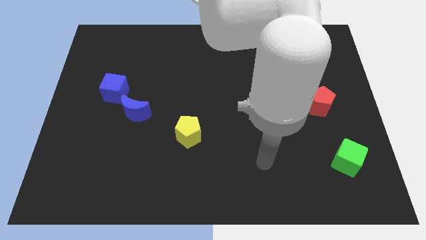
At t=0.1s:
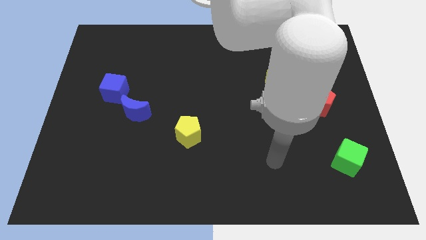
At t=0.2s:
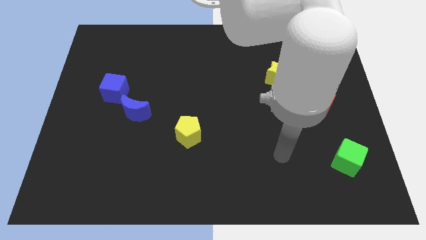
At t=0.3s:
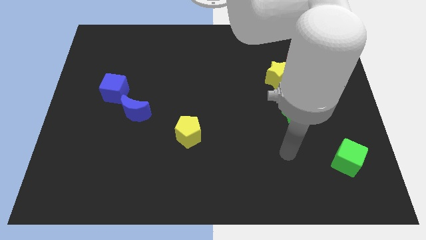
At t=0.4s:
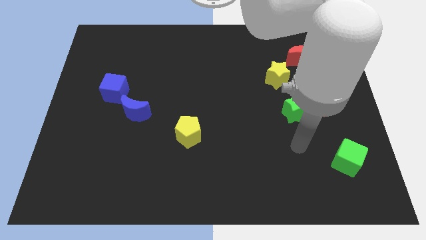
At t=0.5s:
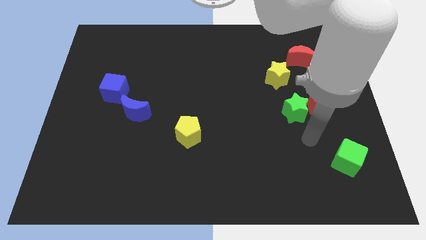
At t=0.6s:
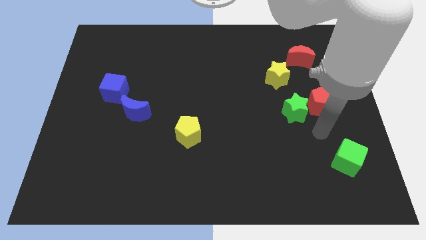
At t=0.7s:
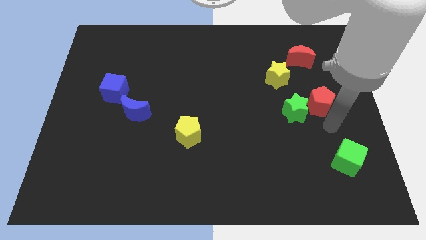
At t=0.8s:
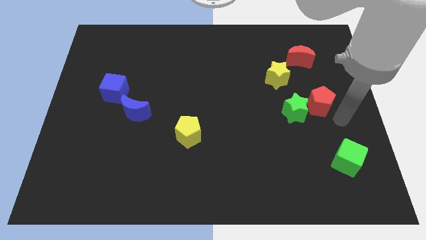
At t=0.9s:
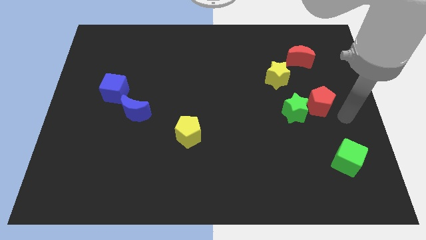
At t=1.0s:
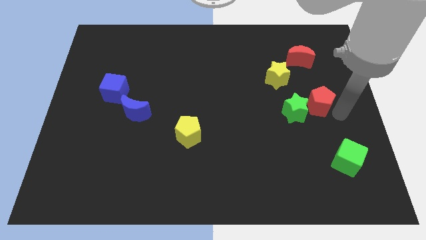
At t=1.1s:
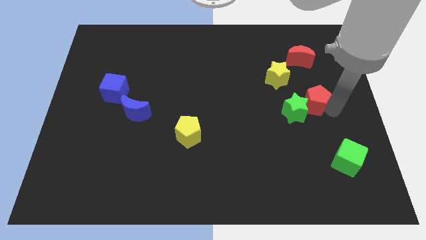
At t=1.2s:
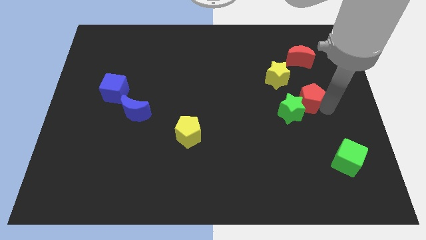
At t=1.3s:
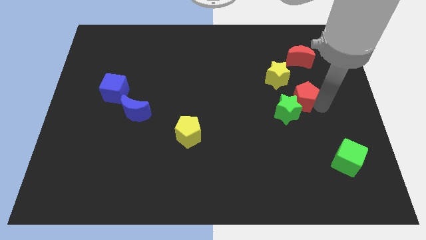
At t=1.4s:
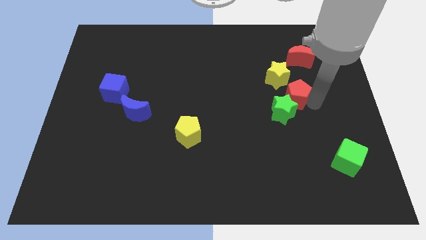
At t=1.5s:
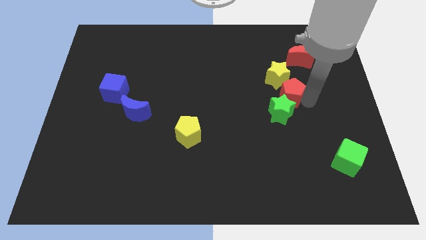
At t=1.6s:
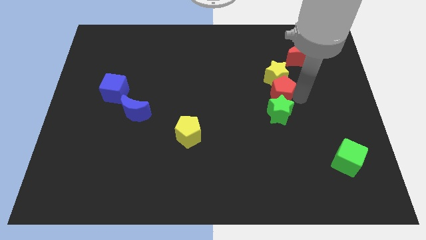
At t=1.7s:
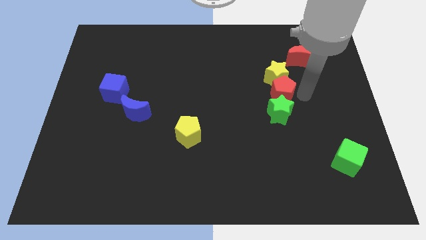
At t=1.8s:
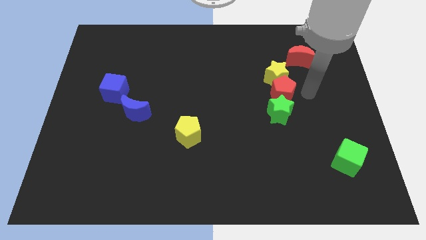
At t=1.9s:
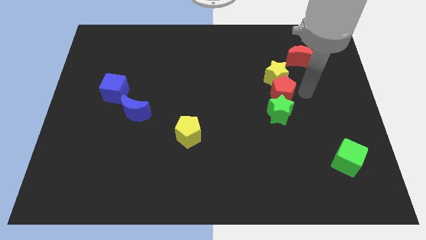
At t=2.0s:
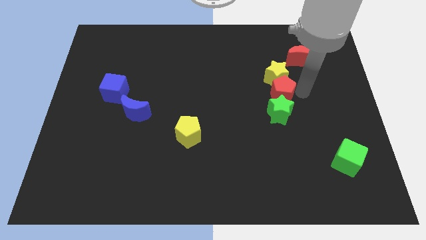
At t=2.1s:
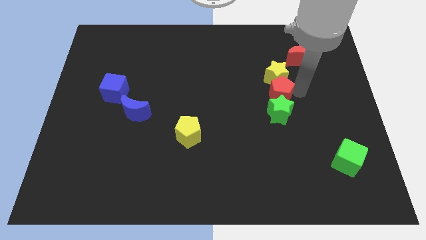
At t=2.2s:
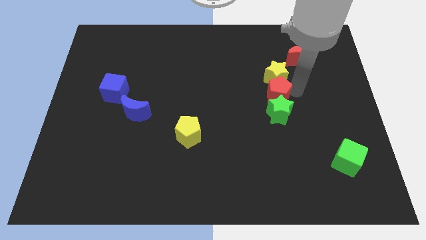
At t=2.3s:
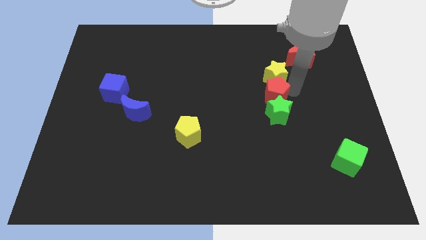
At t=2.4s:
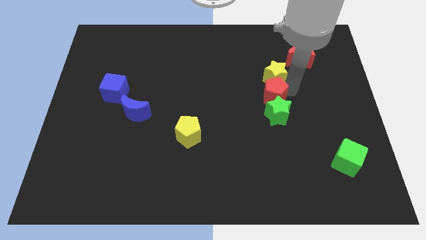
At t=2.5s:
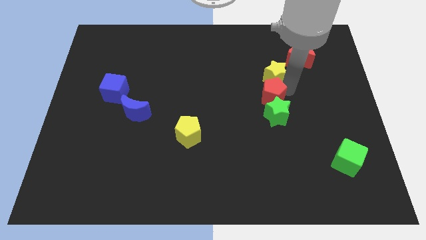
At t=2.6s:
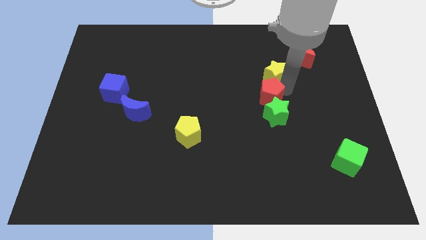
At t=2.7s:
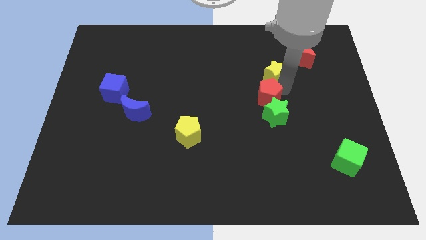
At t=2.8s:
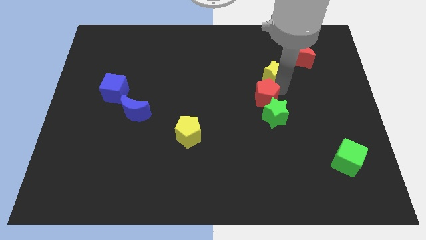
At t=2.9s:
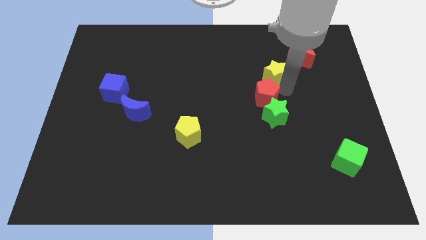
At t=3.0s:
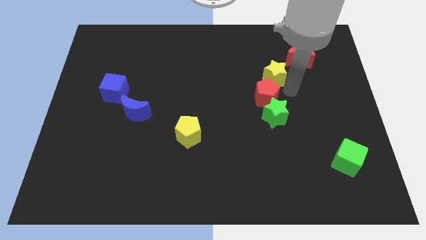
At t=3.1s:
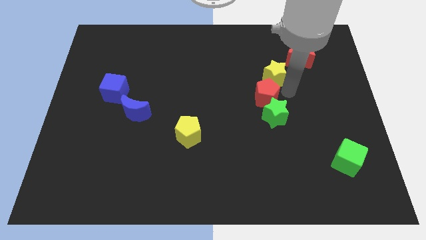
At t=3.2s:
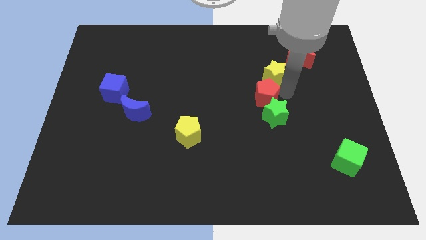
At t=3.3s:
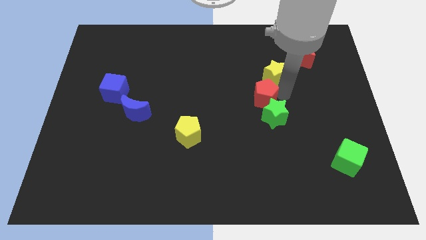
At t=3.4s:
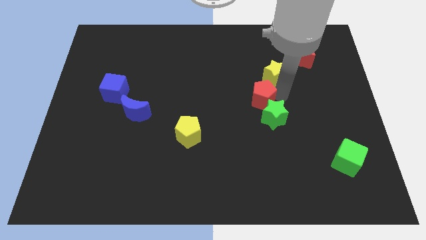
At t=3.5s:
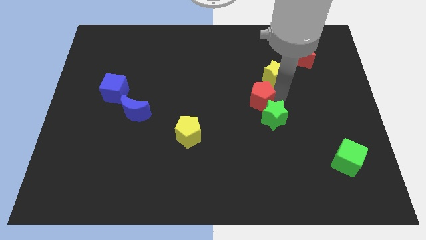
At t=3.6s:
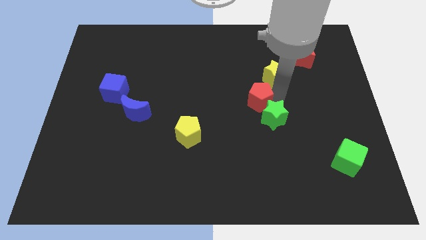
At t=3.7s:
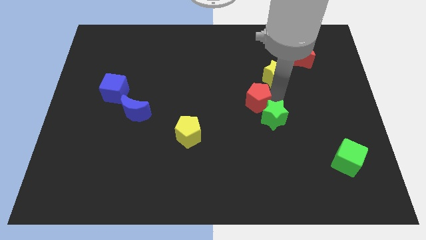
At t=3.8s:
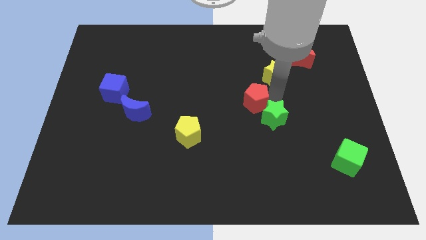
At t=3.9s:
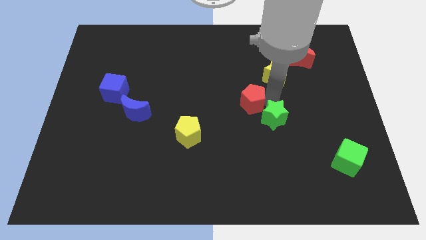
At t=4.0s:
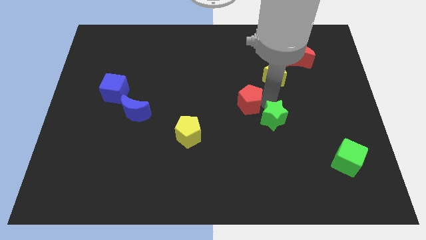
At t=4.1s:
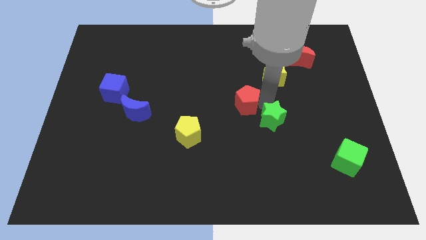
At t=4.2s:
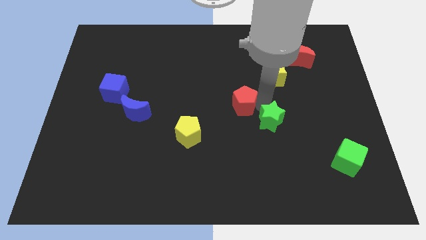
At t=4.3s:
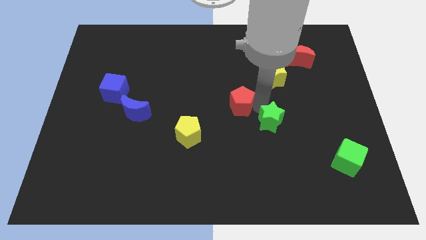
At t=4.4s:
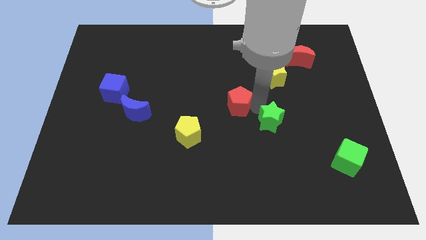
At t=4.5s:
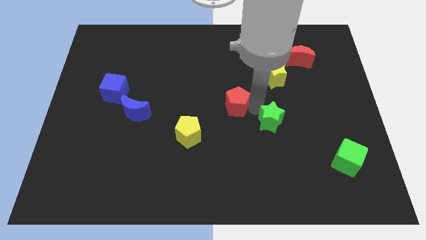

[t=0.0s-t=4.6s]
push the red pentagon left

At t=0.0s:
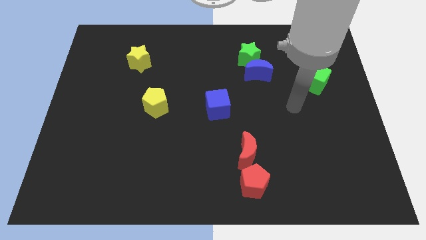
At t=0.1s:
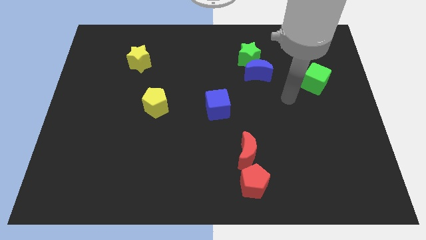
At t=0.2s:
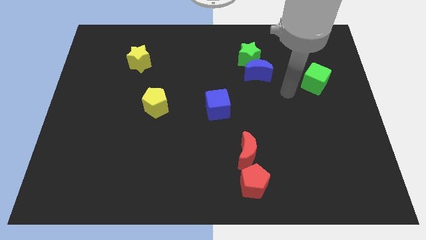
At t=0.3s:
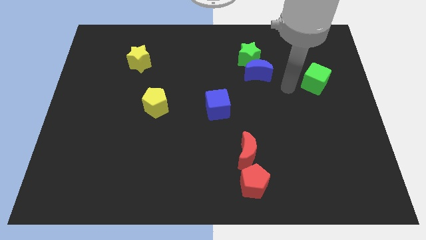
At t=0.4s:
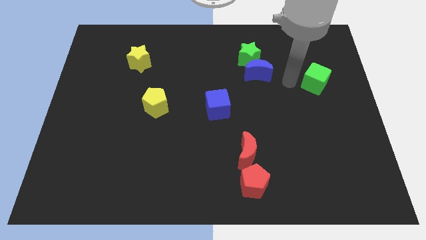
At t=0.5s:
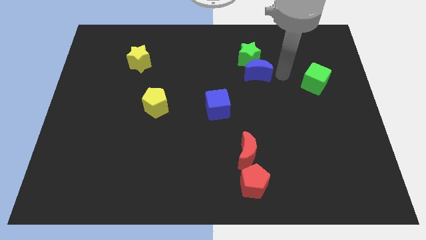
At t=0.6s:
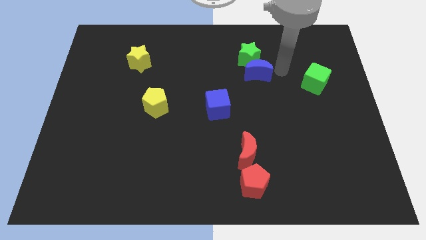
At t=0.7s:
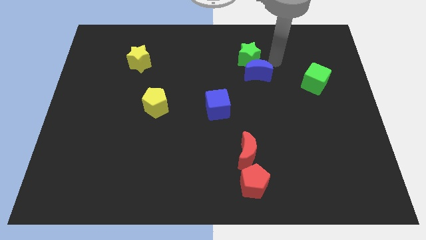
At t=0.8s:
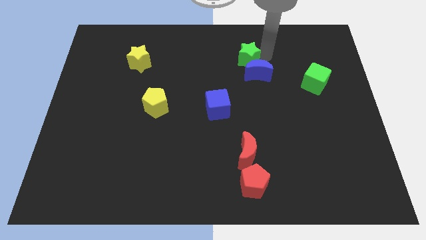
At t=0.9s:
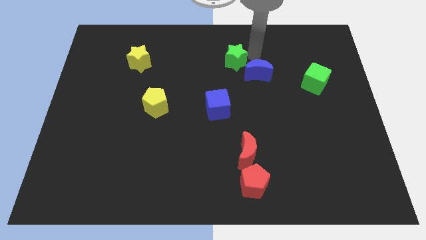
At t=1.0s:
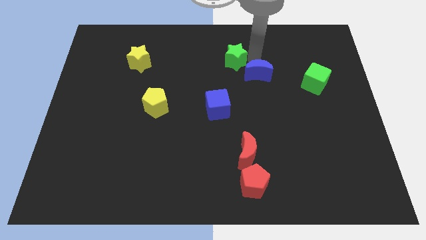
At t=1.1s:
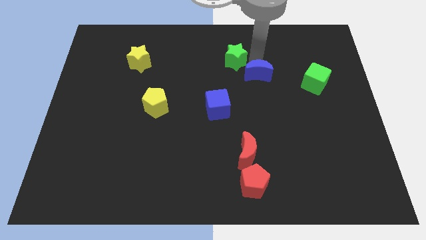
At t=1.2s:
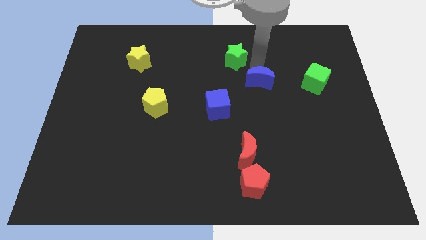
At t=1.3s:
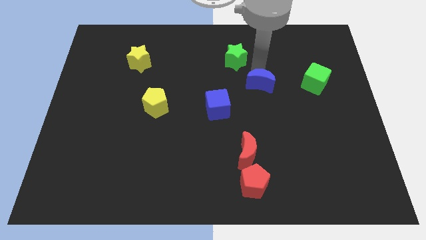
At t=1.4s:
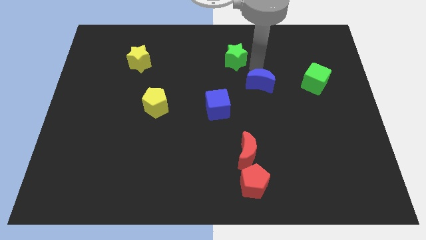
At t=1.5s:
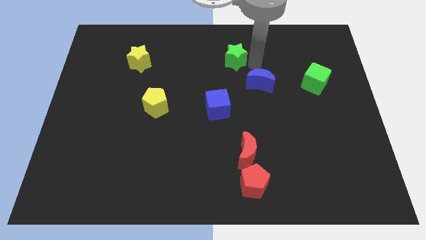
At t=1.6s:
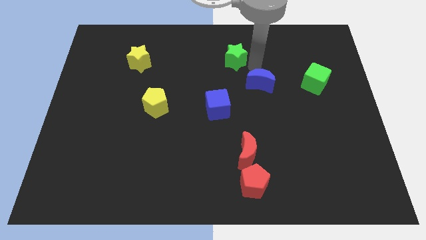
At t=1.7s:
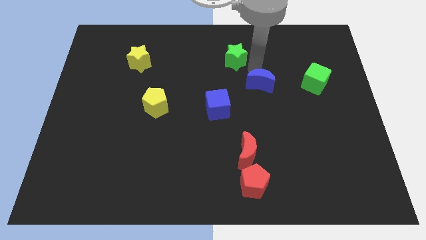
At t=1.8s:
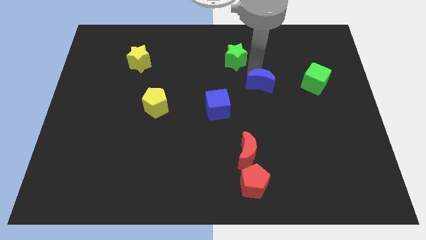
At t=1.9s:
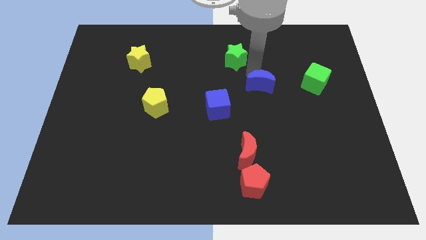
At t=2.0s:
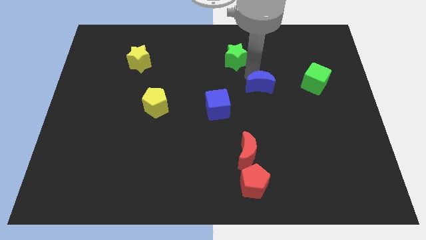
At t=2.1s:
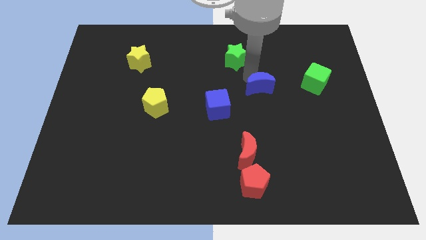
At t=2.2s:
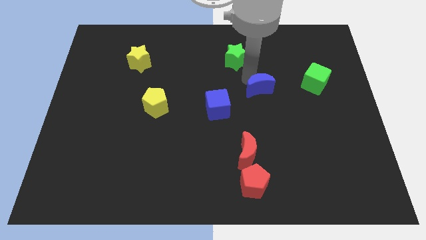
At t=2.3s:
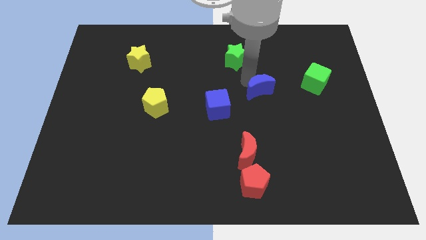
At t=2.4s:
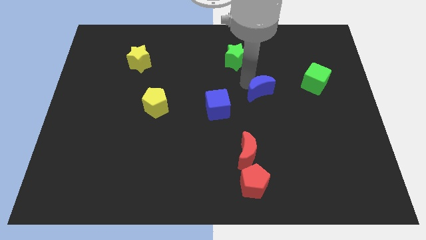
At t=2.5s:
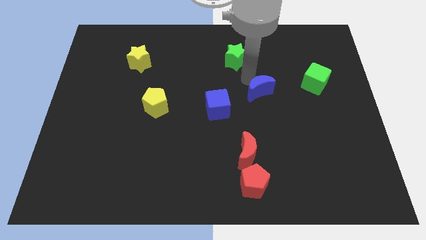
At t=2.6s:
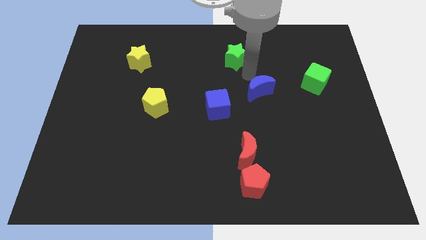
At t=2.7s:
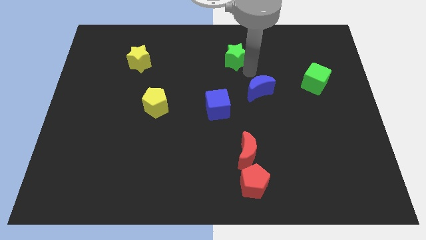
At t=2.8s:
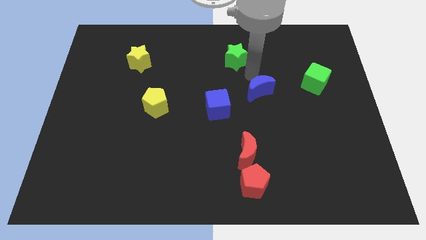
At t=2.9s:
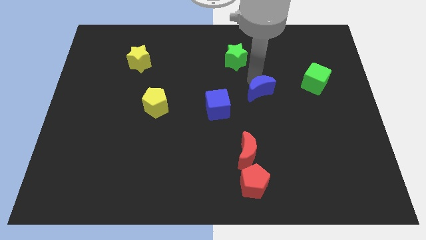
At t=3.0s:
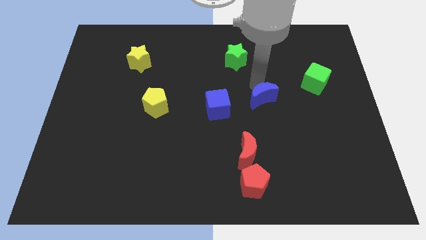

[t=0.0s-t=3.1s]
slightly slide the blue moon downwards

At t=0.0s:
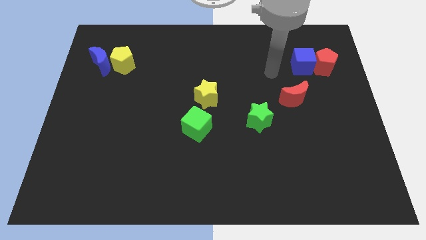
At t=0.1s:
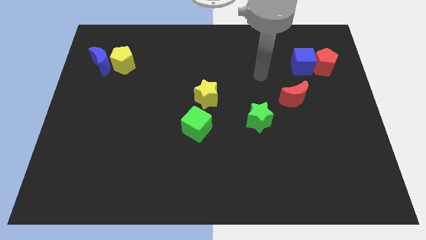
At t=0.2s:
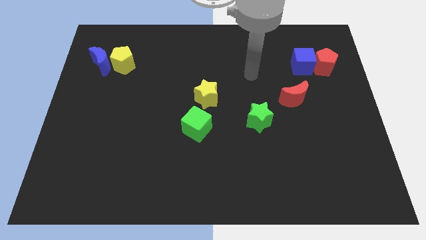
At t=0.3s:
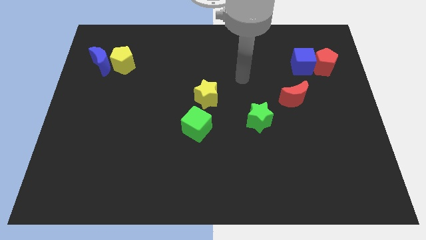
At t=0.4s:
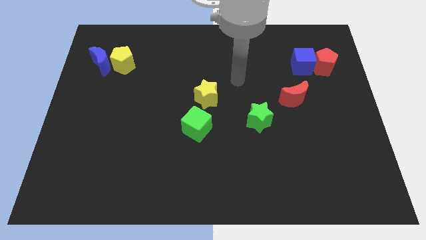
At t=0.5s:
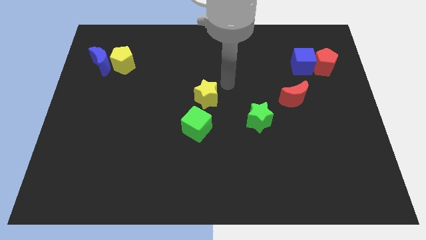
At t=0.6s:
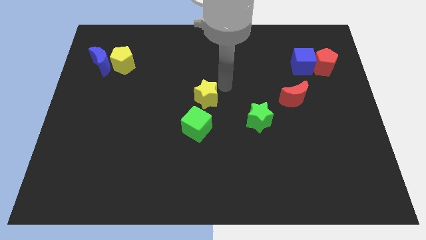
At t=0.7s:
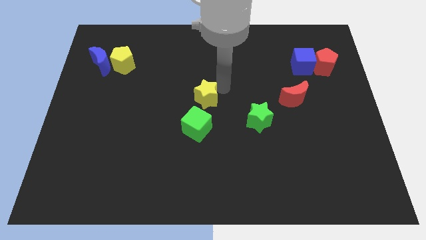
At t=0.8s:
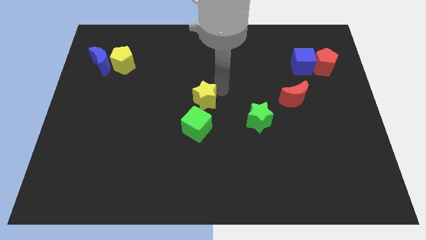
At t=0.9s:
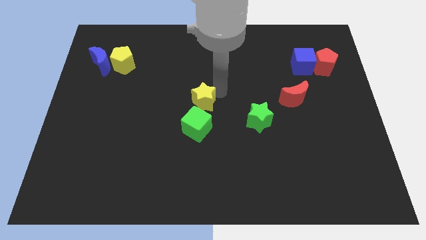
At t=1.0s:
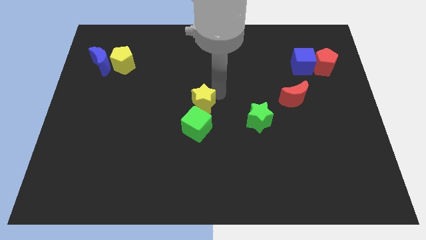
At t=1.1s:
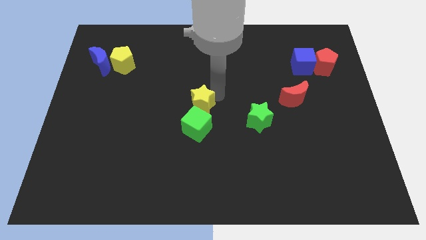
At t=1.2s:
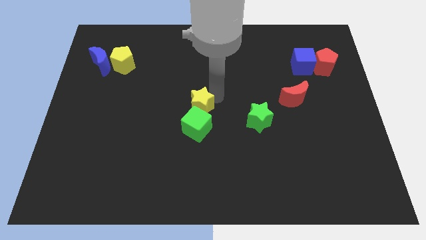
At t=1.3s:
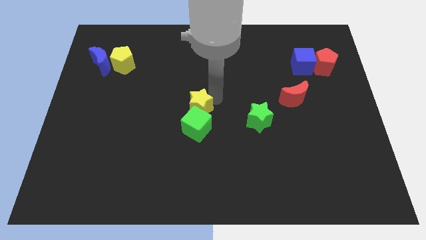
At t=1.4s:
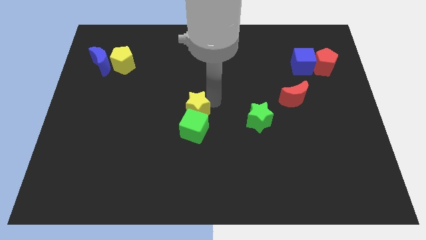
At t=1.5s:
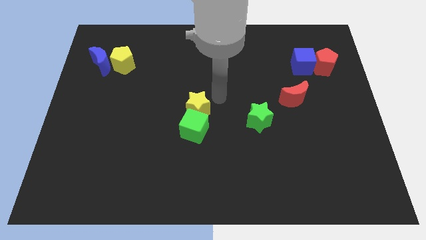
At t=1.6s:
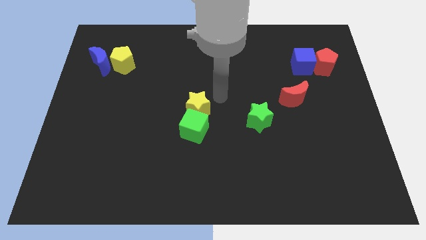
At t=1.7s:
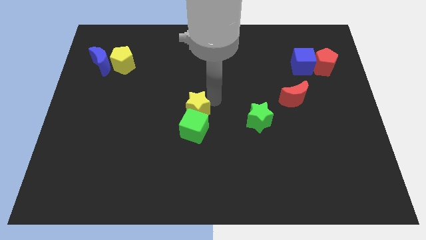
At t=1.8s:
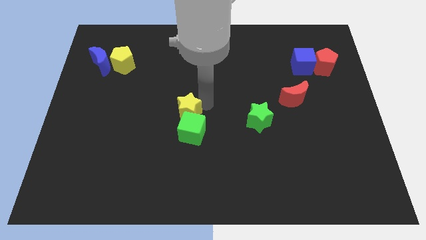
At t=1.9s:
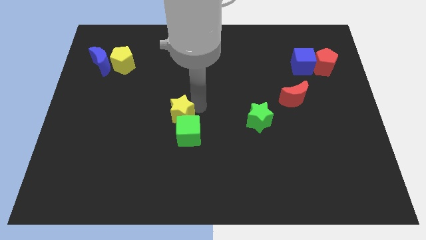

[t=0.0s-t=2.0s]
slightly push the yellow star downwards and left diagonally
